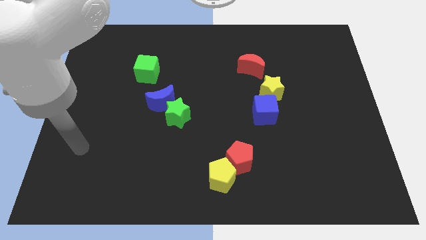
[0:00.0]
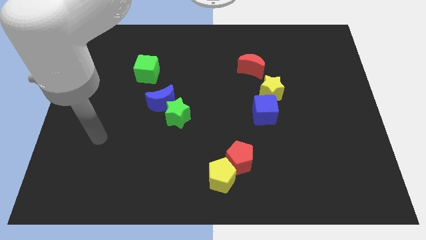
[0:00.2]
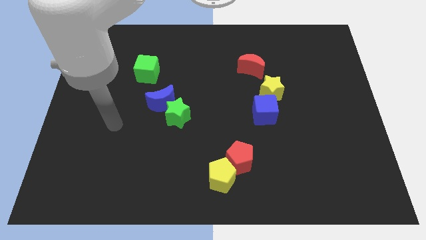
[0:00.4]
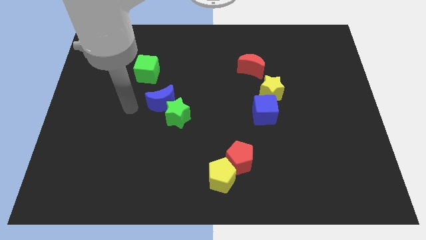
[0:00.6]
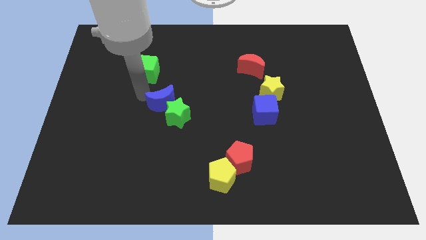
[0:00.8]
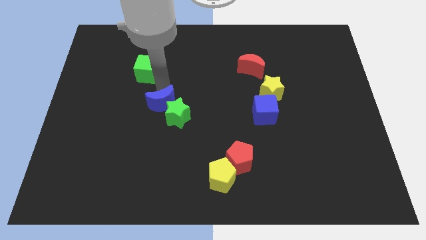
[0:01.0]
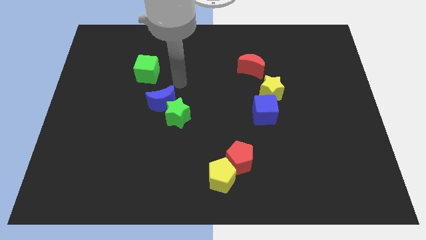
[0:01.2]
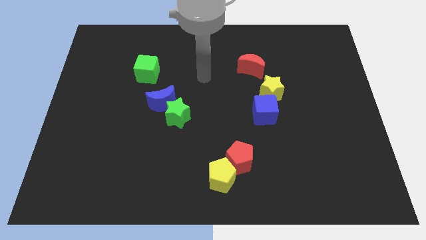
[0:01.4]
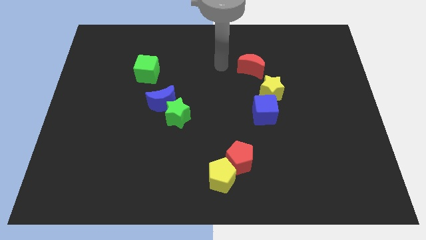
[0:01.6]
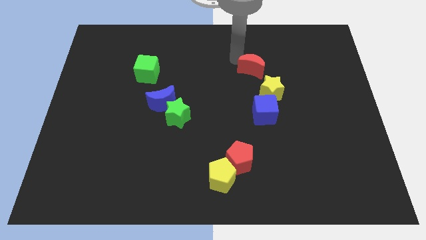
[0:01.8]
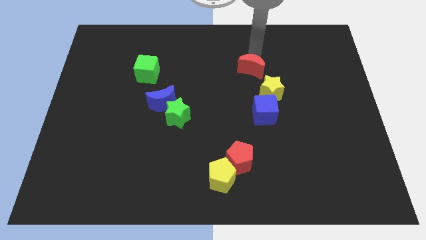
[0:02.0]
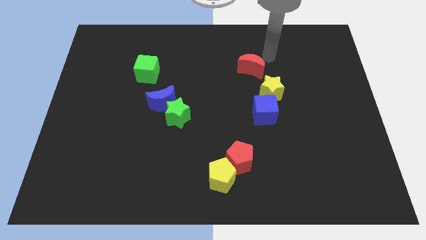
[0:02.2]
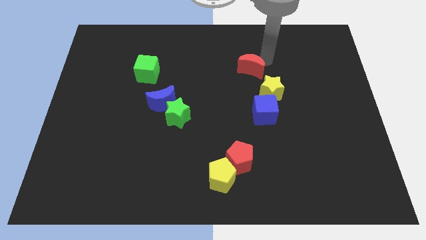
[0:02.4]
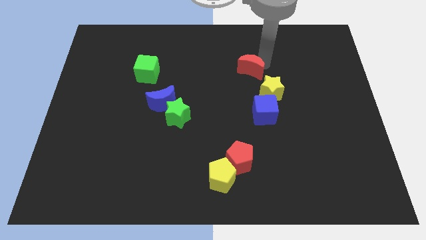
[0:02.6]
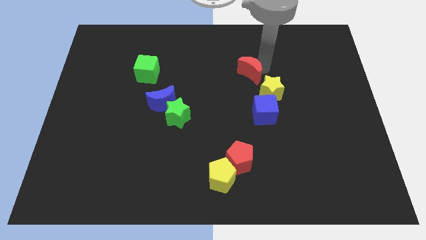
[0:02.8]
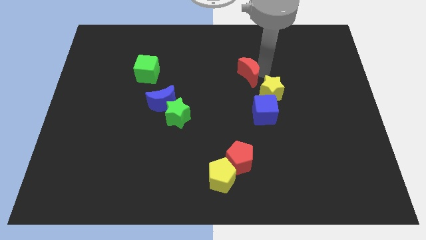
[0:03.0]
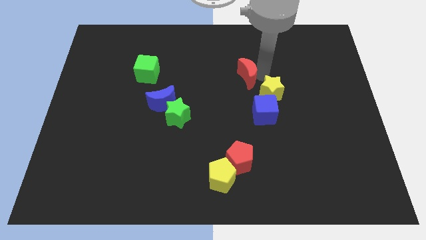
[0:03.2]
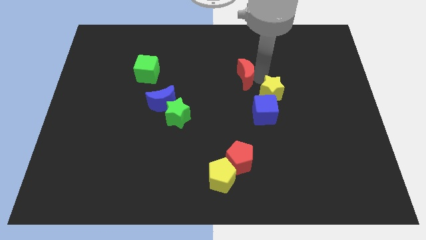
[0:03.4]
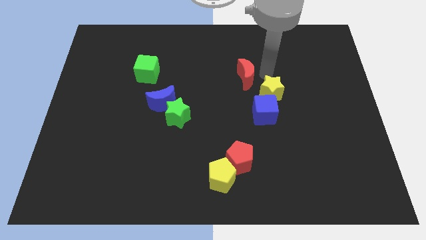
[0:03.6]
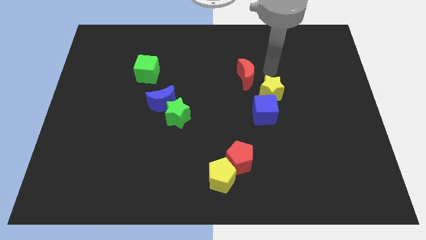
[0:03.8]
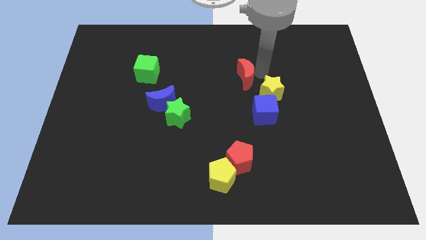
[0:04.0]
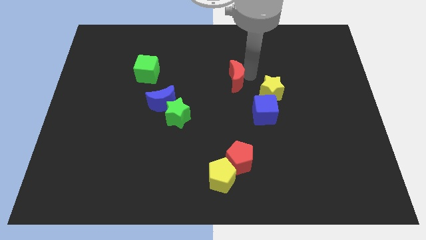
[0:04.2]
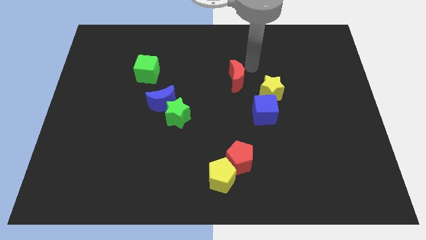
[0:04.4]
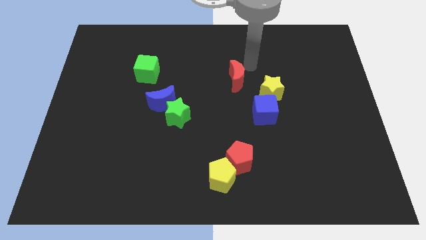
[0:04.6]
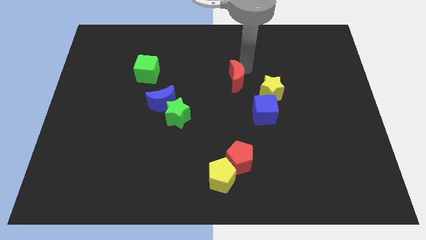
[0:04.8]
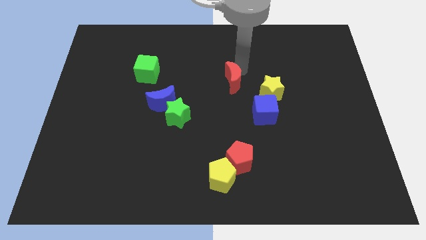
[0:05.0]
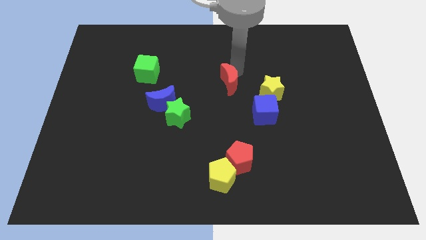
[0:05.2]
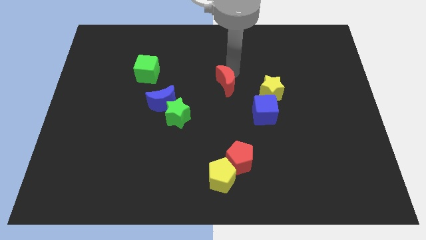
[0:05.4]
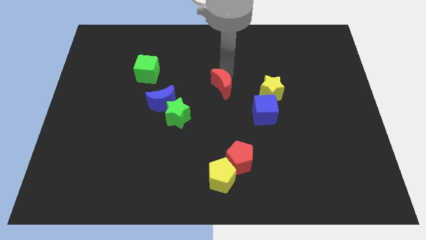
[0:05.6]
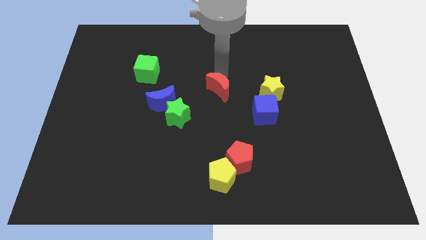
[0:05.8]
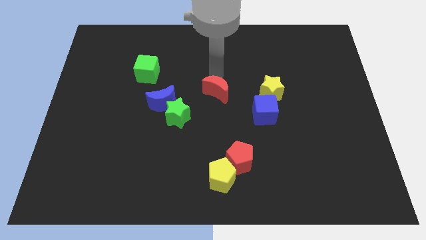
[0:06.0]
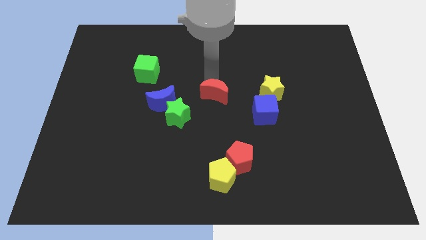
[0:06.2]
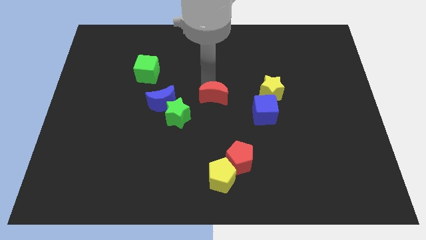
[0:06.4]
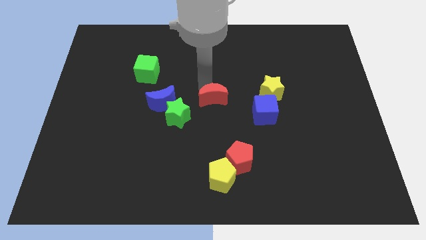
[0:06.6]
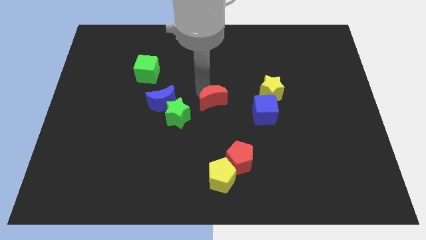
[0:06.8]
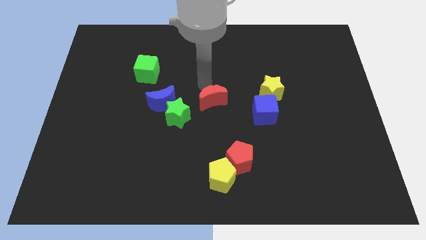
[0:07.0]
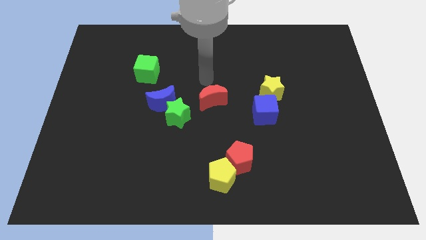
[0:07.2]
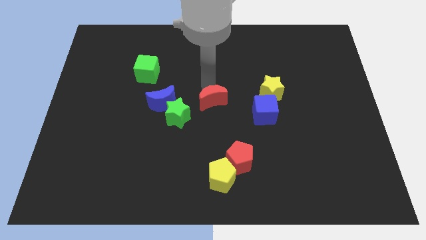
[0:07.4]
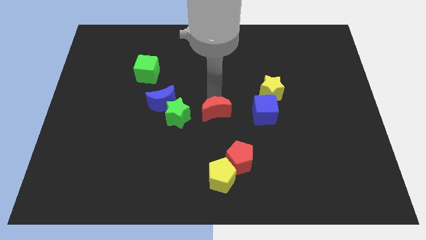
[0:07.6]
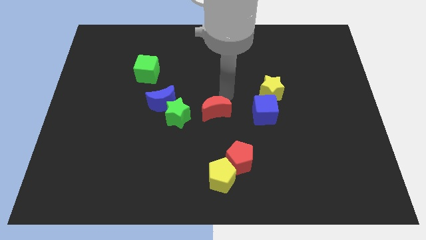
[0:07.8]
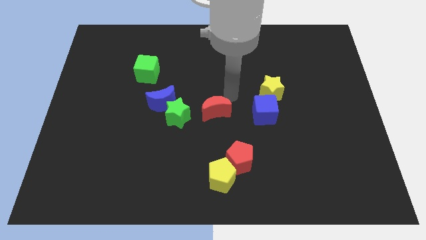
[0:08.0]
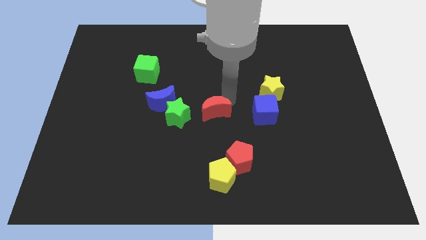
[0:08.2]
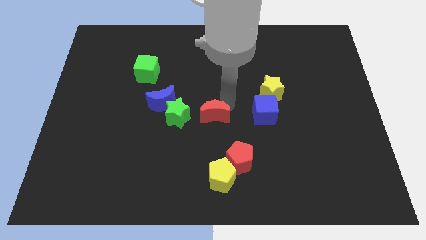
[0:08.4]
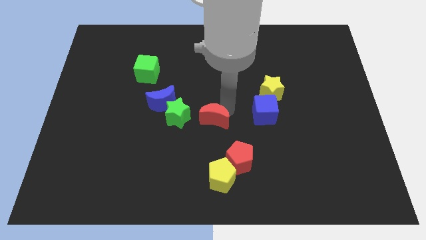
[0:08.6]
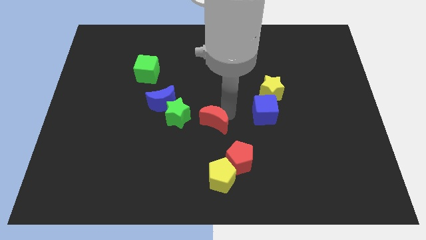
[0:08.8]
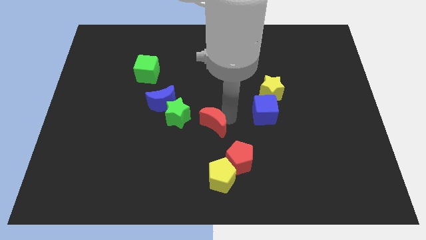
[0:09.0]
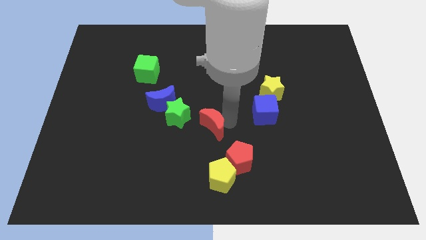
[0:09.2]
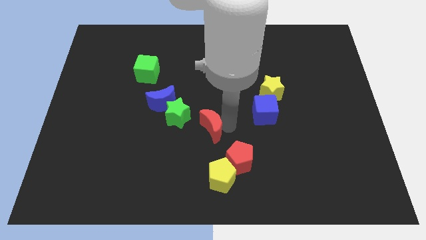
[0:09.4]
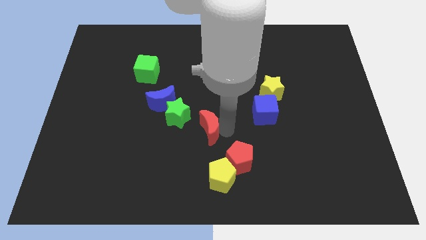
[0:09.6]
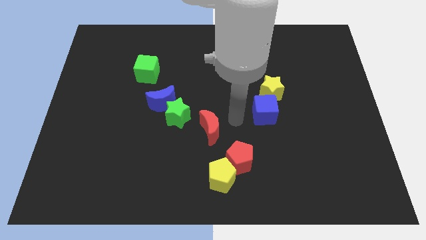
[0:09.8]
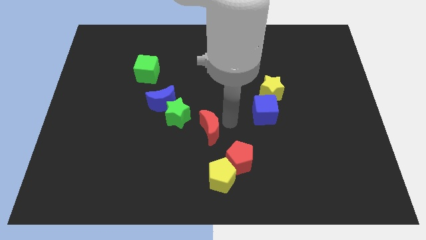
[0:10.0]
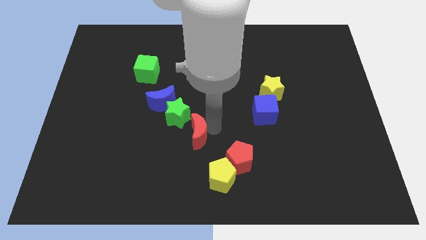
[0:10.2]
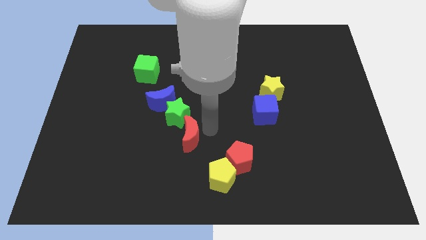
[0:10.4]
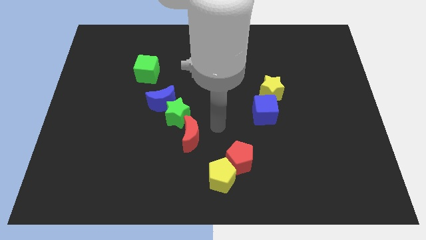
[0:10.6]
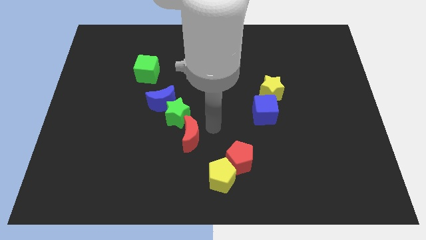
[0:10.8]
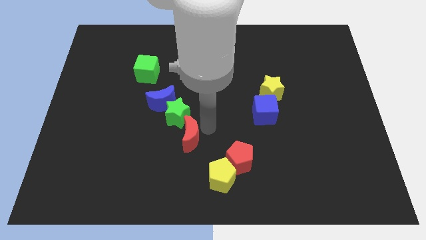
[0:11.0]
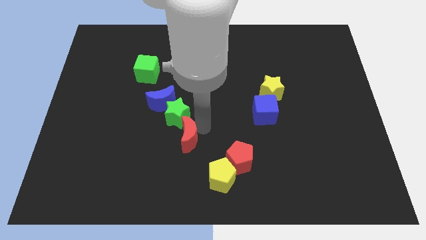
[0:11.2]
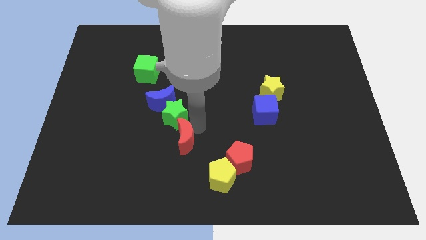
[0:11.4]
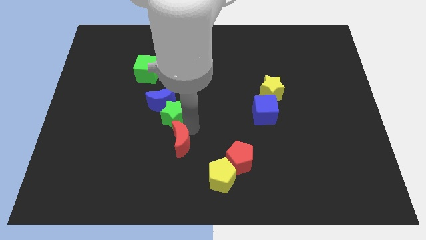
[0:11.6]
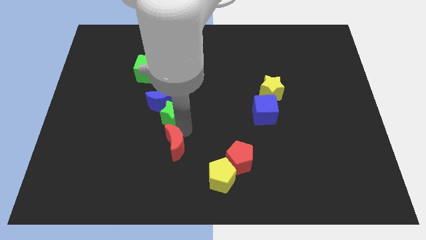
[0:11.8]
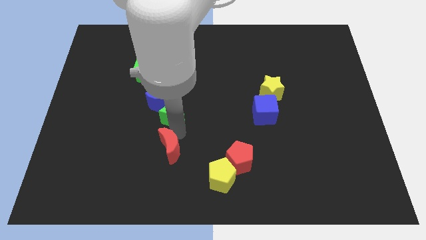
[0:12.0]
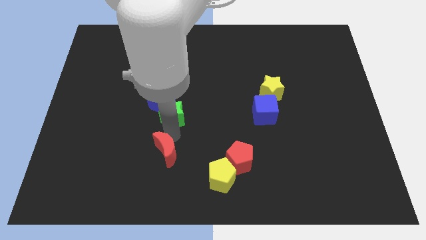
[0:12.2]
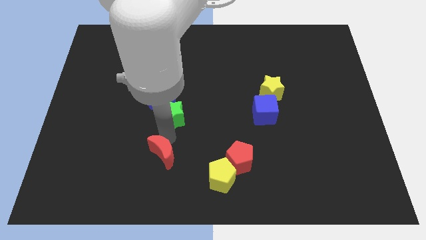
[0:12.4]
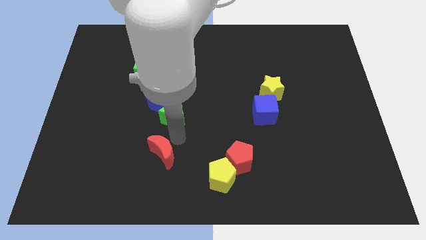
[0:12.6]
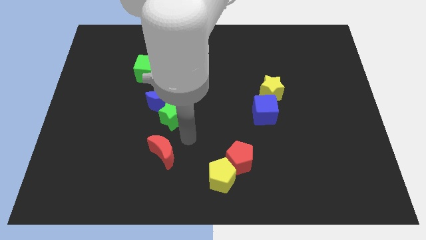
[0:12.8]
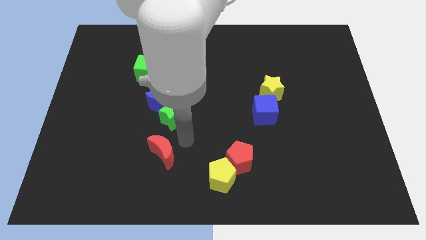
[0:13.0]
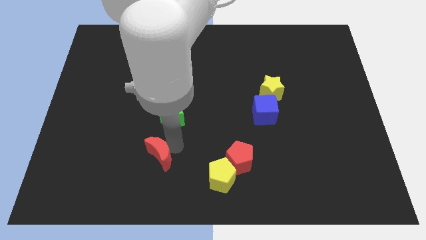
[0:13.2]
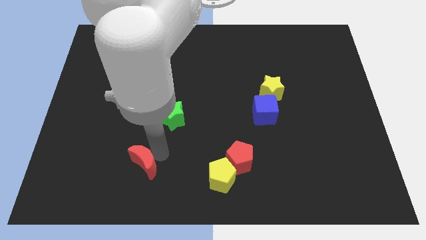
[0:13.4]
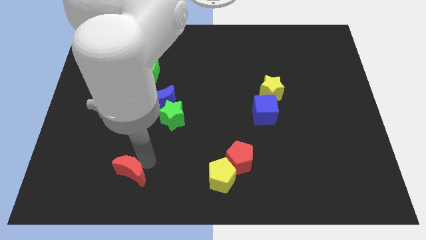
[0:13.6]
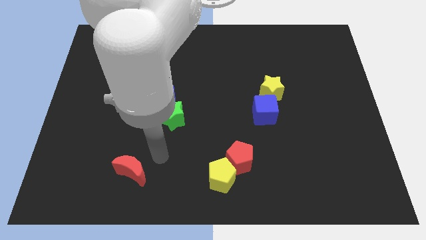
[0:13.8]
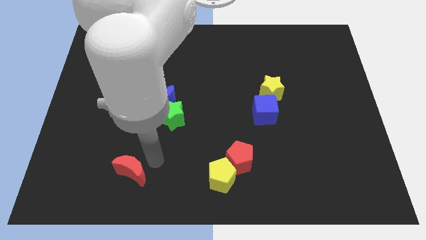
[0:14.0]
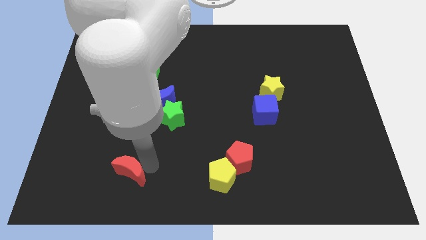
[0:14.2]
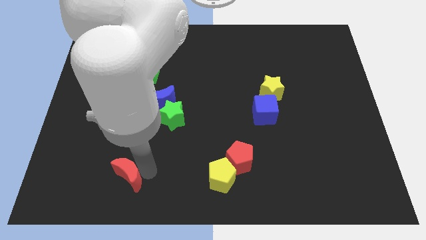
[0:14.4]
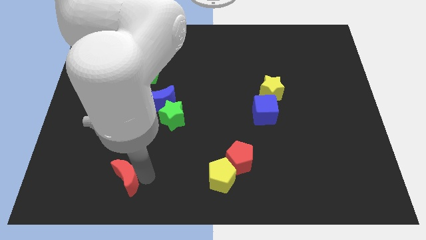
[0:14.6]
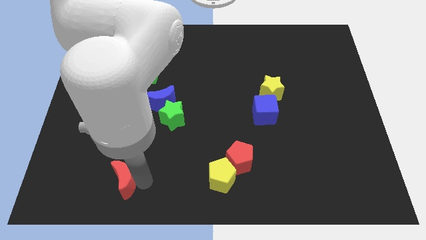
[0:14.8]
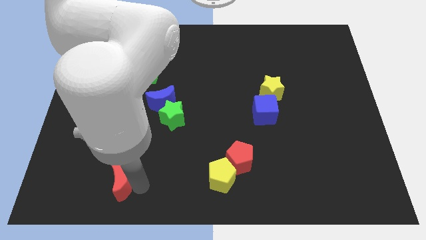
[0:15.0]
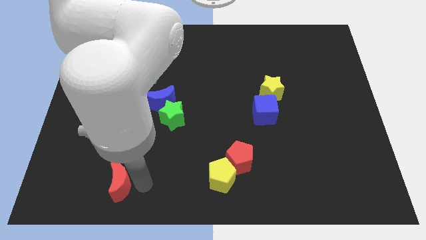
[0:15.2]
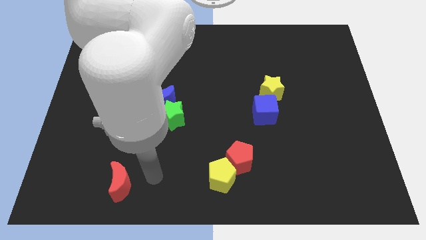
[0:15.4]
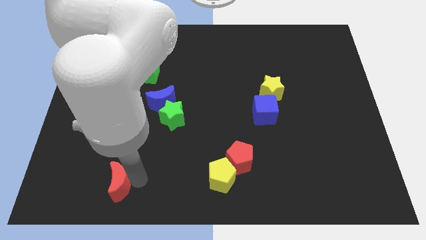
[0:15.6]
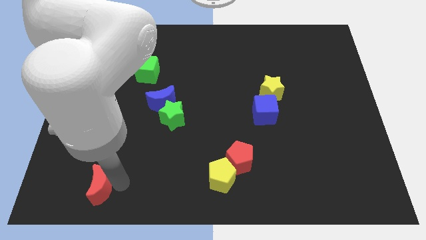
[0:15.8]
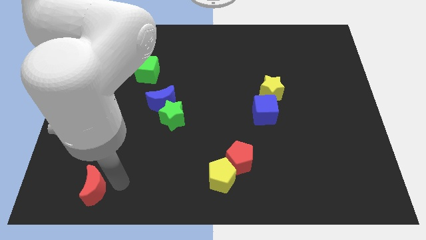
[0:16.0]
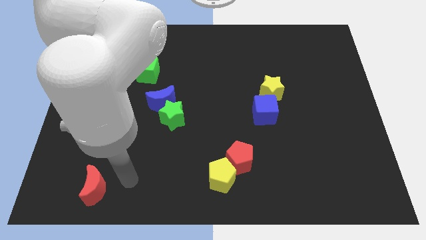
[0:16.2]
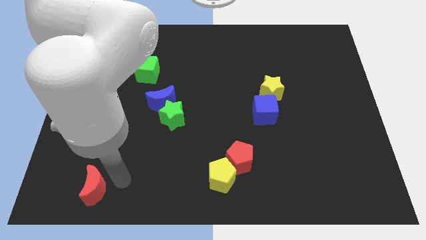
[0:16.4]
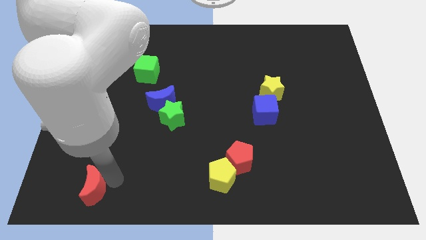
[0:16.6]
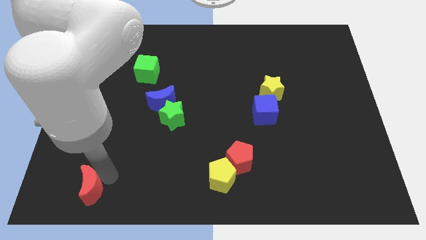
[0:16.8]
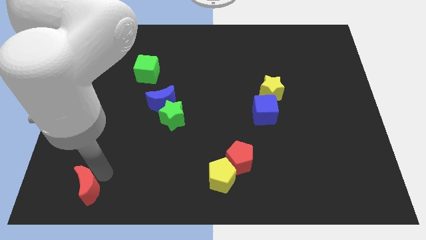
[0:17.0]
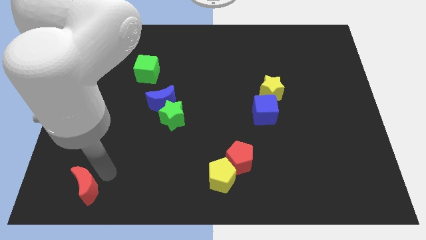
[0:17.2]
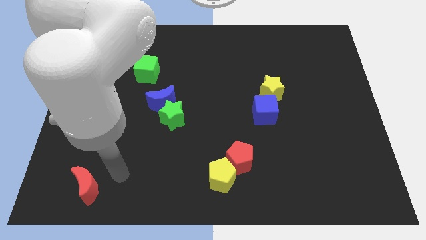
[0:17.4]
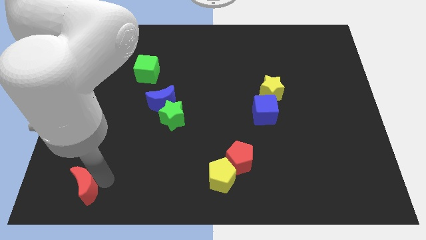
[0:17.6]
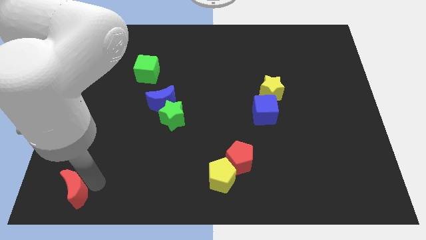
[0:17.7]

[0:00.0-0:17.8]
push the red moon to the bottom left
